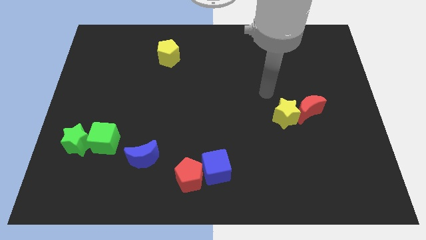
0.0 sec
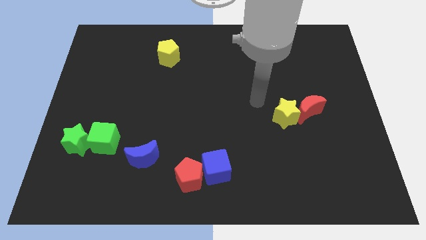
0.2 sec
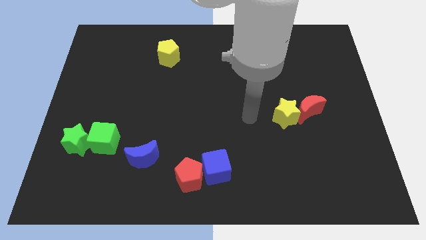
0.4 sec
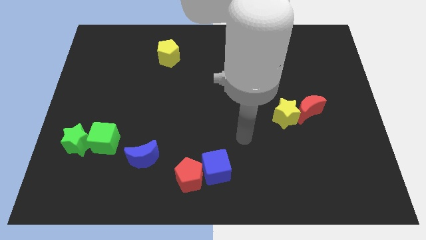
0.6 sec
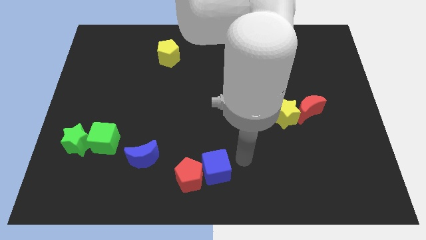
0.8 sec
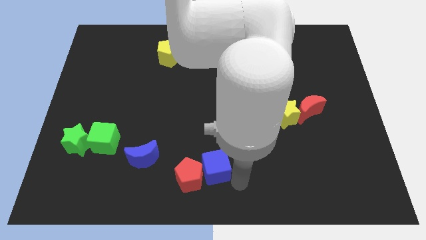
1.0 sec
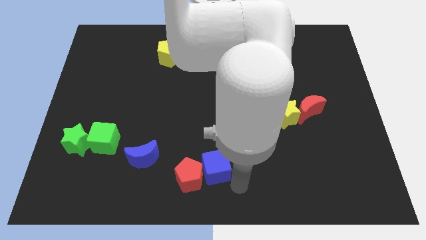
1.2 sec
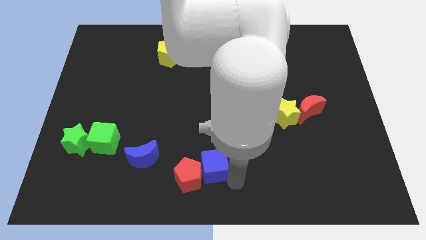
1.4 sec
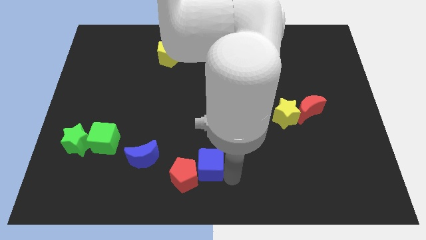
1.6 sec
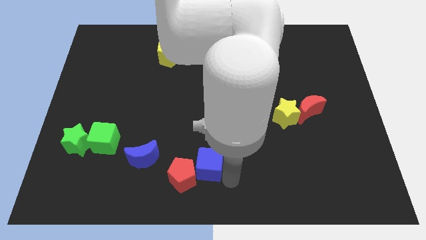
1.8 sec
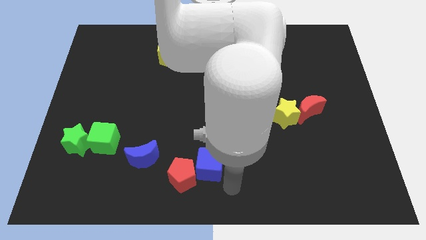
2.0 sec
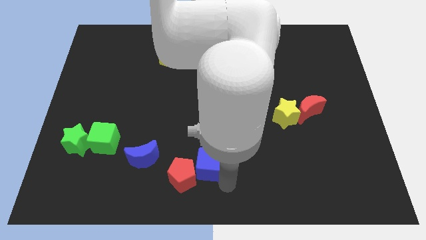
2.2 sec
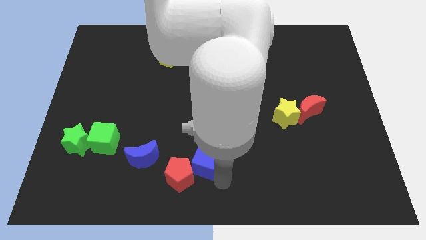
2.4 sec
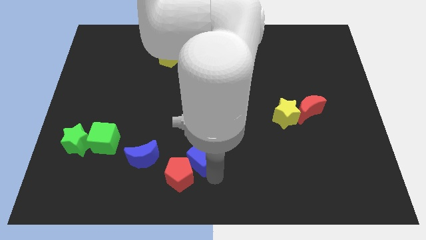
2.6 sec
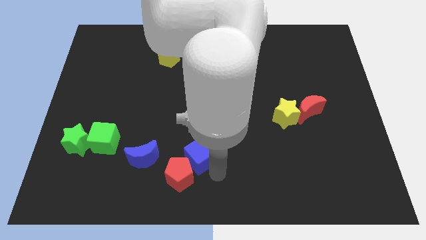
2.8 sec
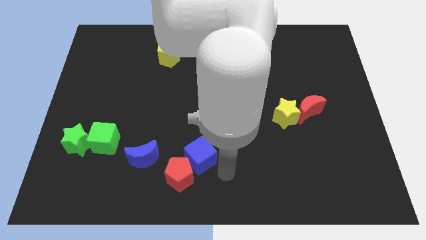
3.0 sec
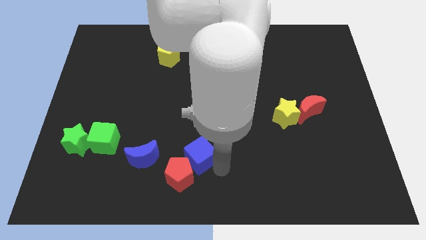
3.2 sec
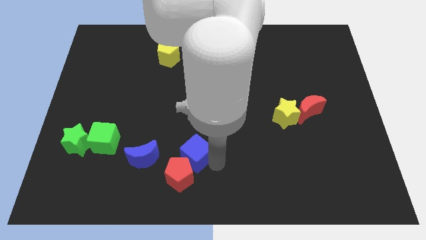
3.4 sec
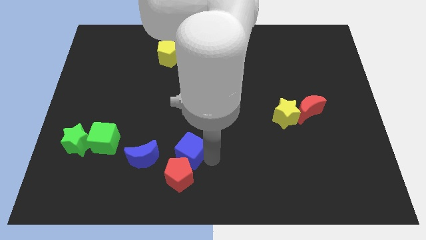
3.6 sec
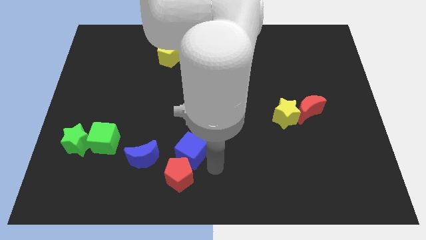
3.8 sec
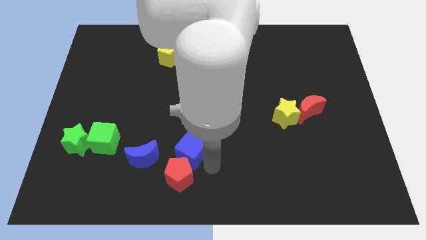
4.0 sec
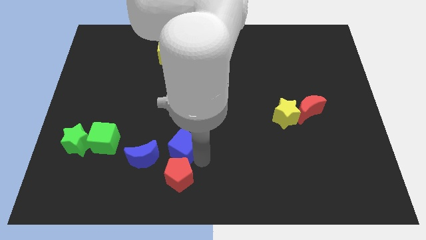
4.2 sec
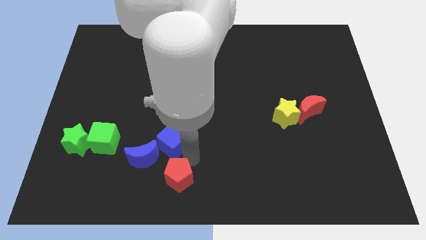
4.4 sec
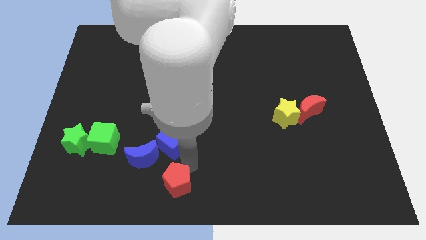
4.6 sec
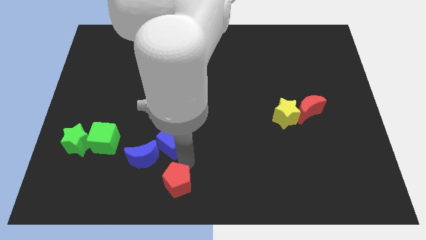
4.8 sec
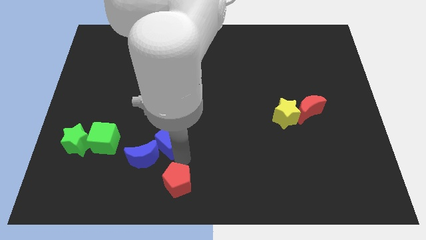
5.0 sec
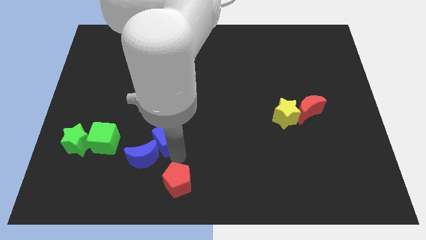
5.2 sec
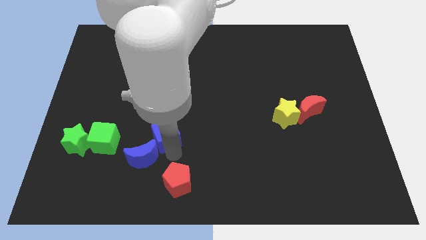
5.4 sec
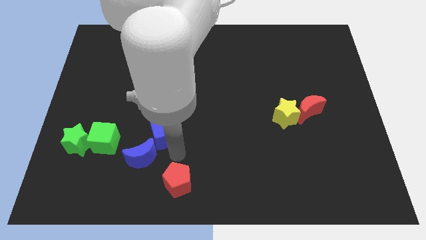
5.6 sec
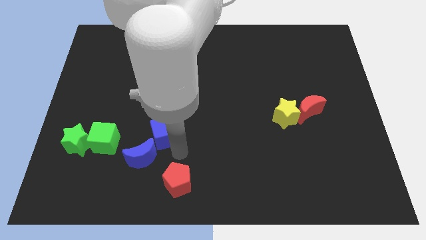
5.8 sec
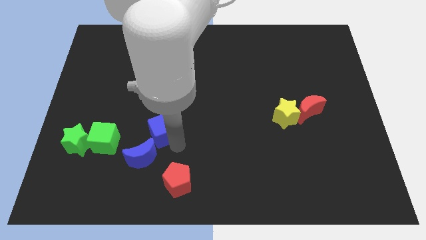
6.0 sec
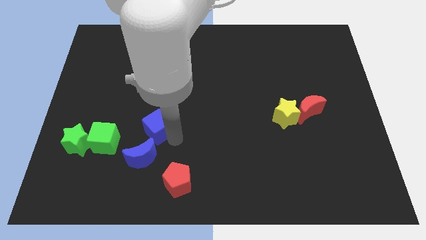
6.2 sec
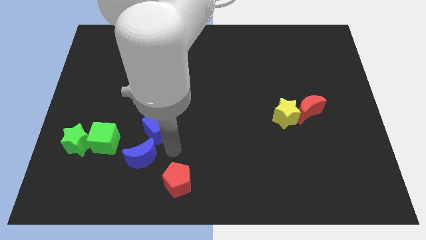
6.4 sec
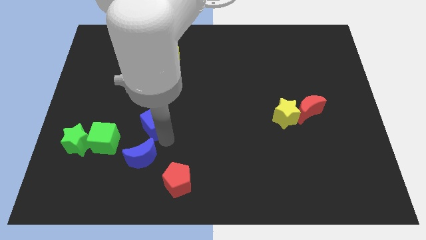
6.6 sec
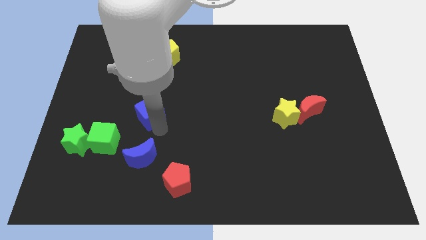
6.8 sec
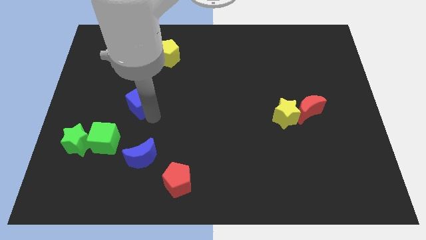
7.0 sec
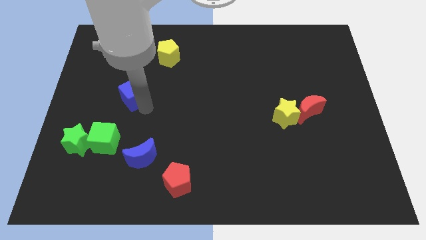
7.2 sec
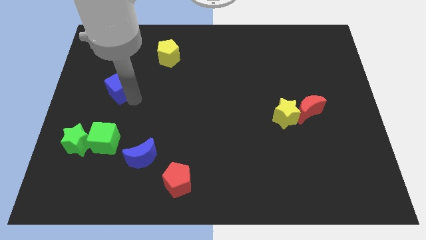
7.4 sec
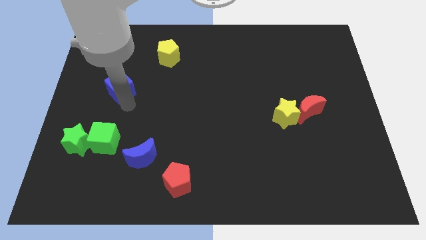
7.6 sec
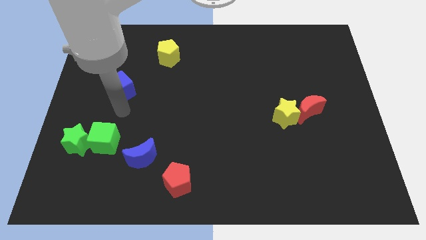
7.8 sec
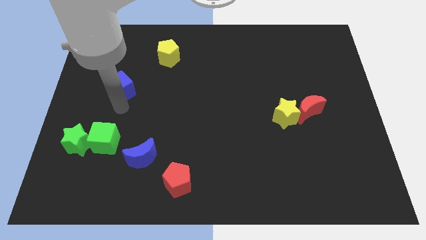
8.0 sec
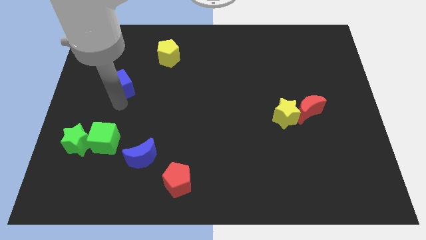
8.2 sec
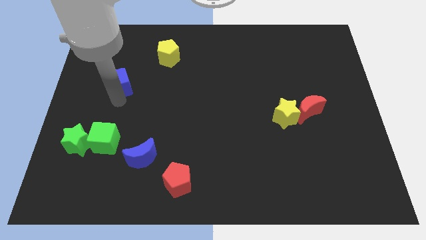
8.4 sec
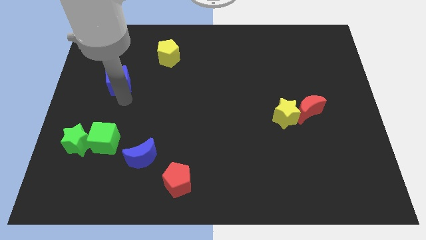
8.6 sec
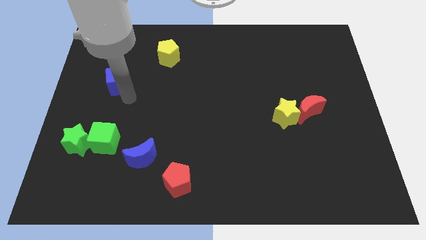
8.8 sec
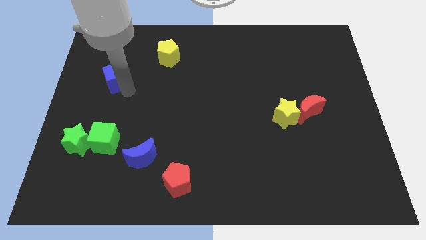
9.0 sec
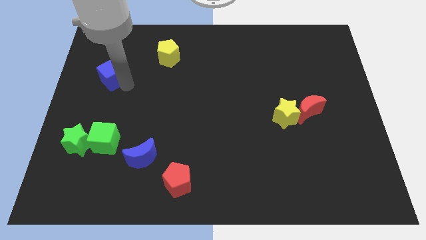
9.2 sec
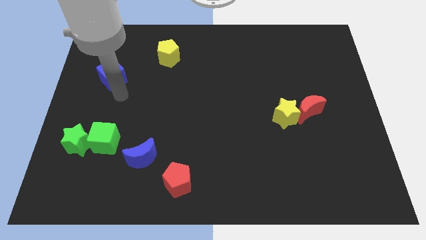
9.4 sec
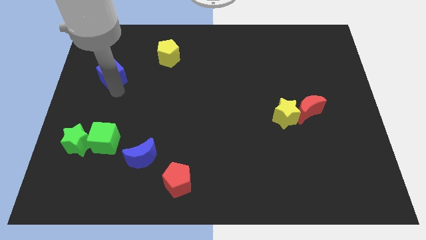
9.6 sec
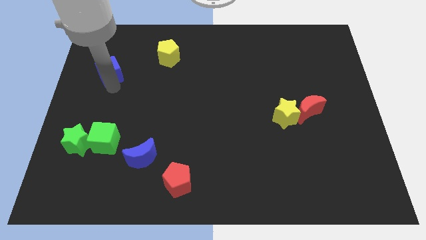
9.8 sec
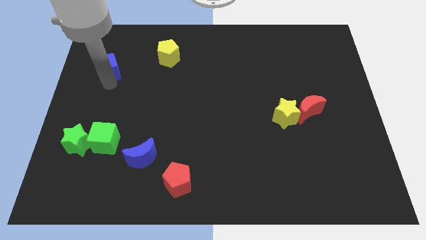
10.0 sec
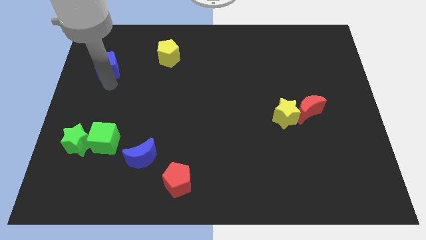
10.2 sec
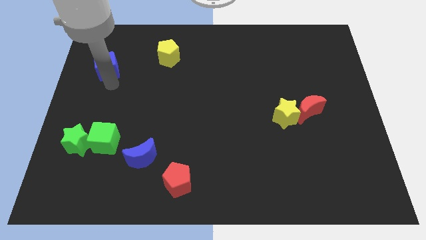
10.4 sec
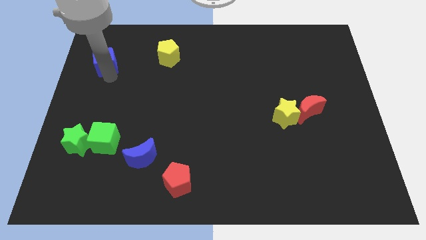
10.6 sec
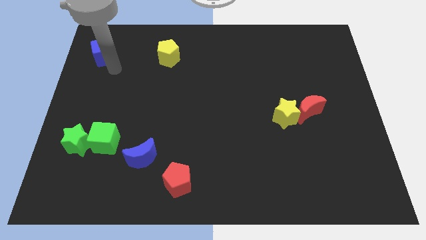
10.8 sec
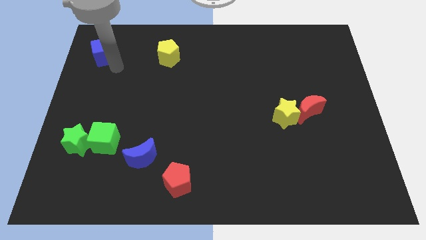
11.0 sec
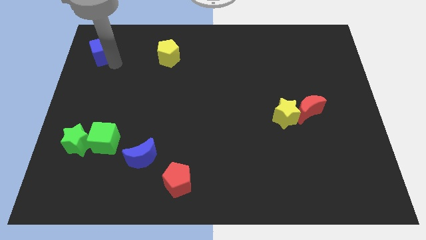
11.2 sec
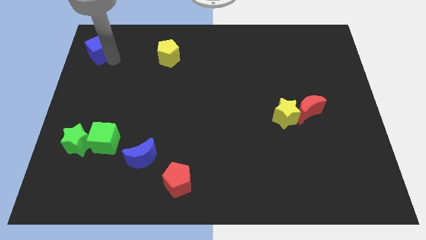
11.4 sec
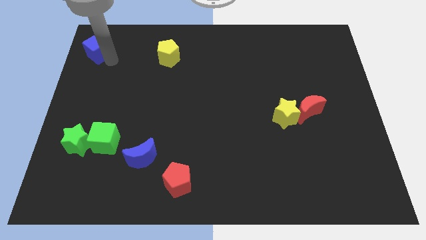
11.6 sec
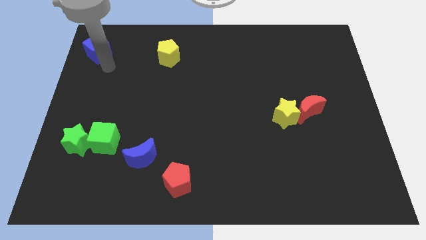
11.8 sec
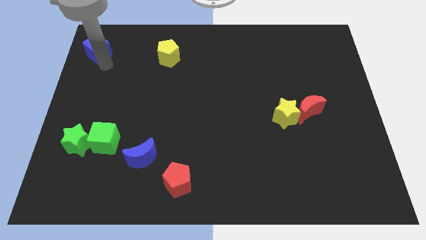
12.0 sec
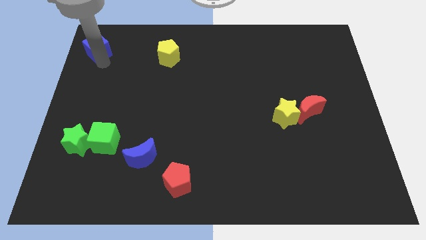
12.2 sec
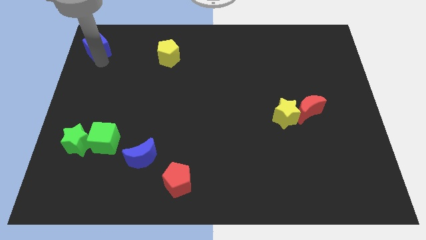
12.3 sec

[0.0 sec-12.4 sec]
put the blue cube to the top left corner
